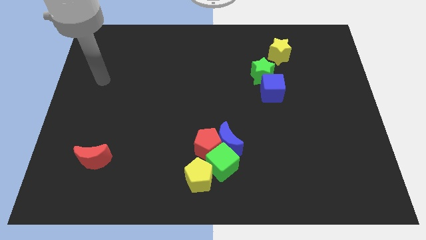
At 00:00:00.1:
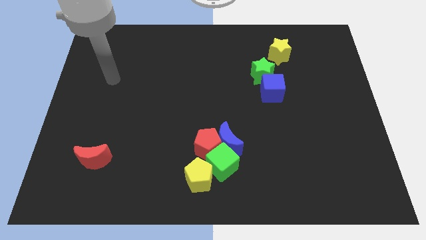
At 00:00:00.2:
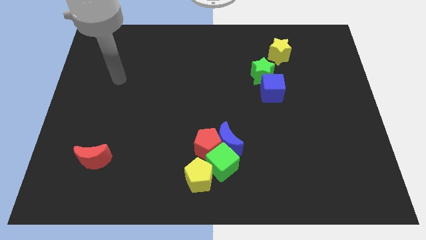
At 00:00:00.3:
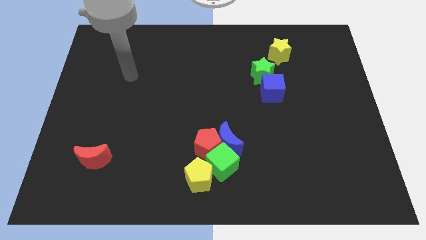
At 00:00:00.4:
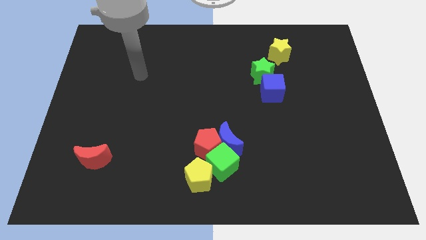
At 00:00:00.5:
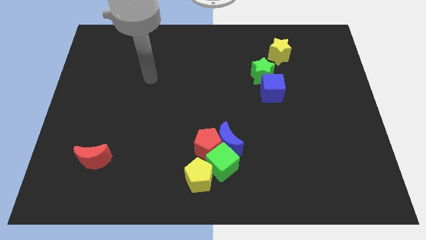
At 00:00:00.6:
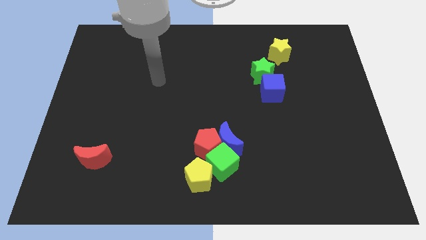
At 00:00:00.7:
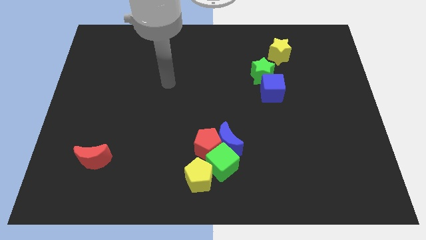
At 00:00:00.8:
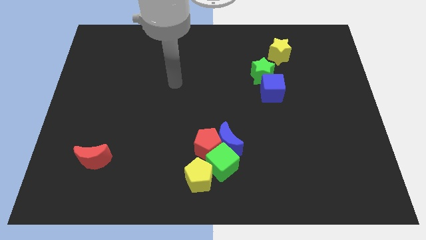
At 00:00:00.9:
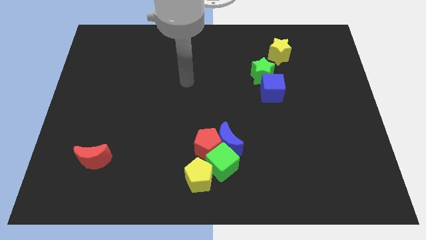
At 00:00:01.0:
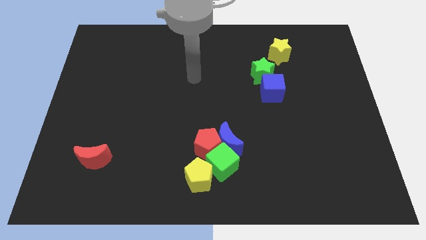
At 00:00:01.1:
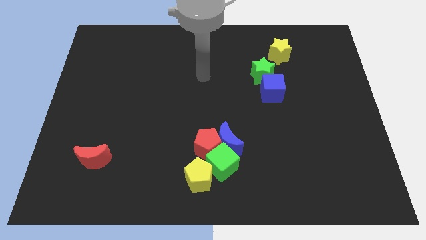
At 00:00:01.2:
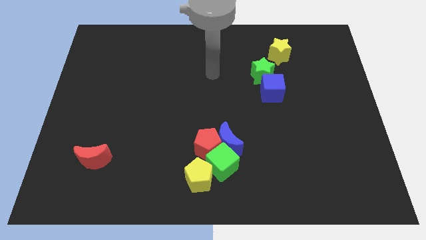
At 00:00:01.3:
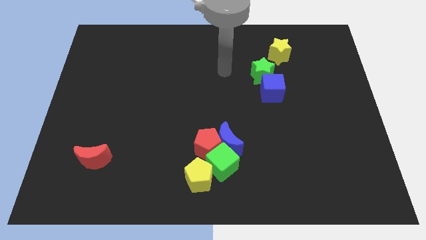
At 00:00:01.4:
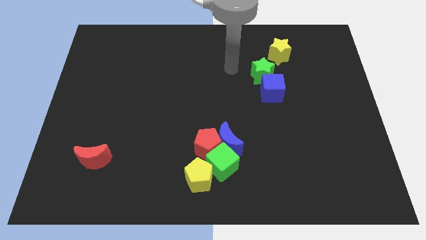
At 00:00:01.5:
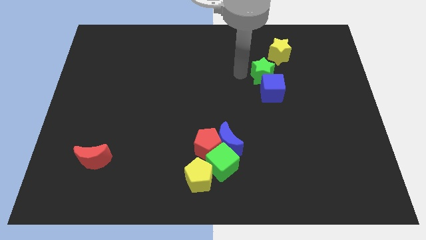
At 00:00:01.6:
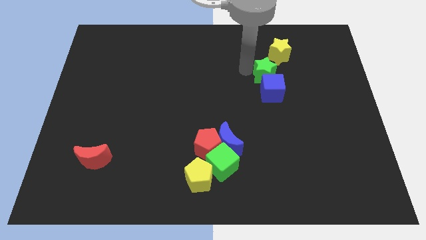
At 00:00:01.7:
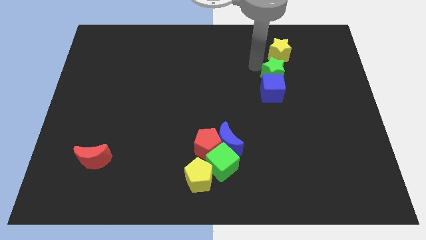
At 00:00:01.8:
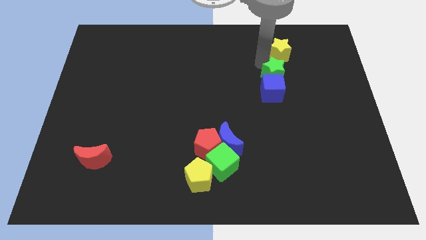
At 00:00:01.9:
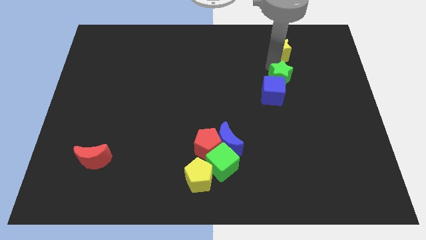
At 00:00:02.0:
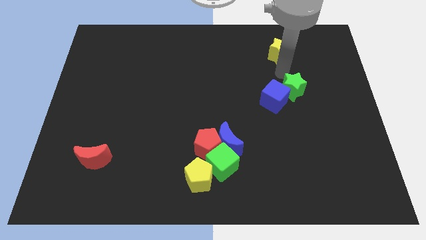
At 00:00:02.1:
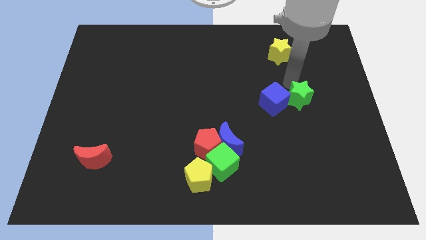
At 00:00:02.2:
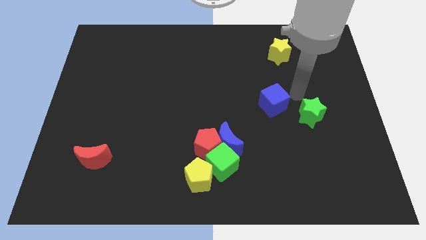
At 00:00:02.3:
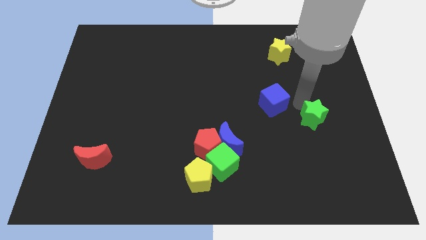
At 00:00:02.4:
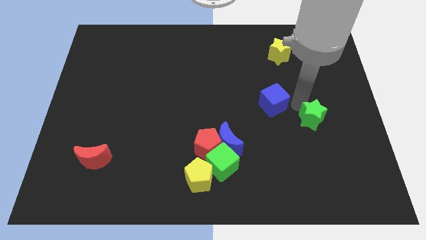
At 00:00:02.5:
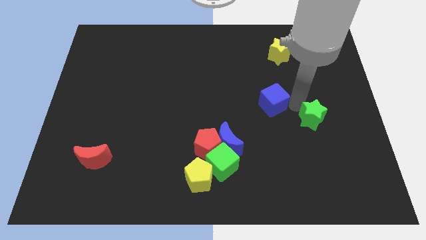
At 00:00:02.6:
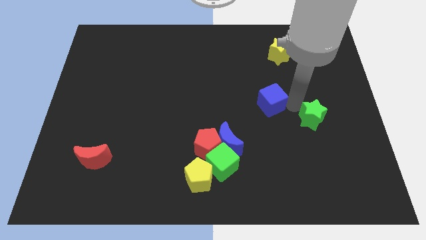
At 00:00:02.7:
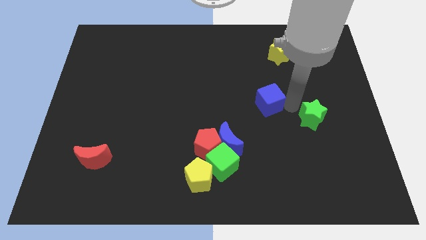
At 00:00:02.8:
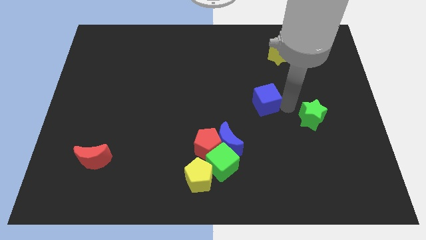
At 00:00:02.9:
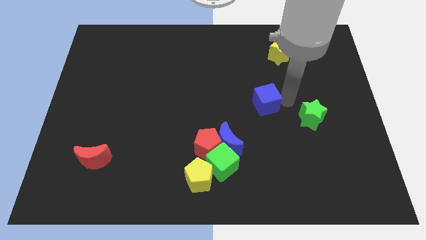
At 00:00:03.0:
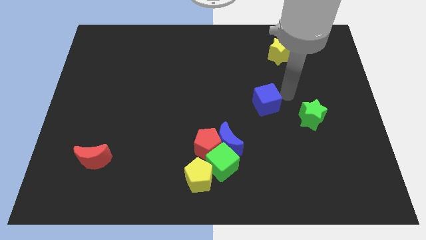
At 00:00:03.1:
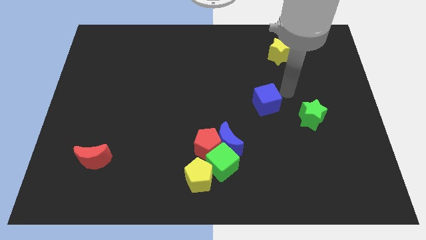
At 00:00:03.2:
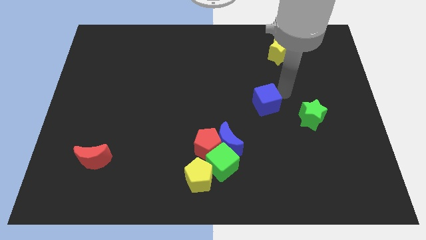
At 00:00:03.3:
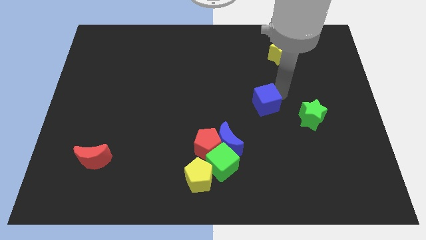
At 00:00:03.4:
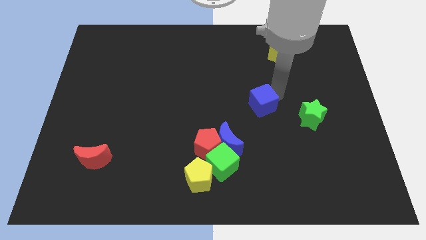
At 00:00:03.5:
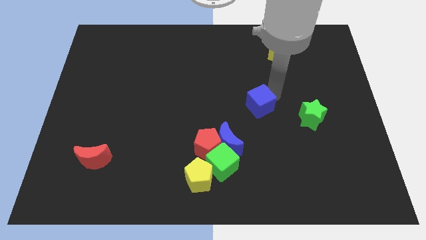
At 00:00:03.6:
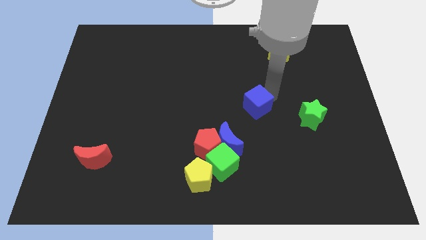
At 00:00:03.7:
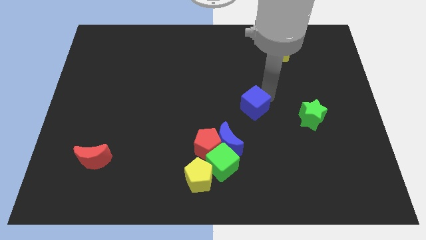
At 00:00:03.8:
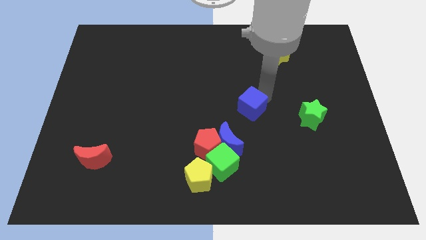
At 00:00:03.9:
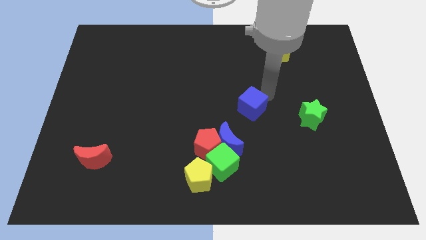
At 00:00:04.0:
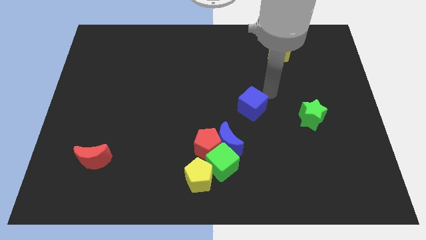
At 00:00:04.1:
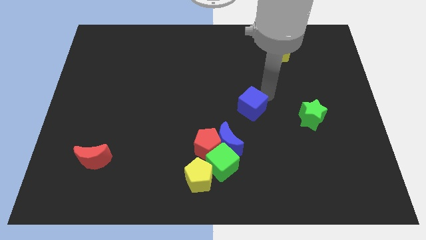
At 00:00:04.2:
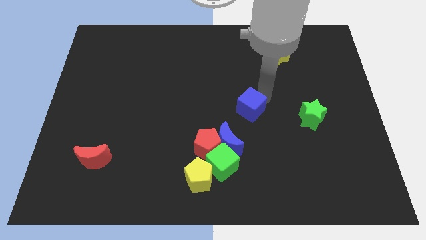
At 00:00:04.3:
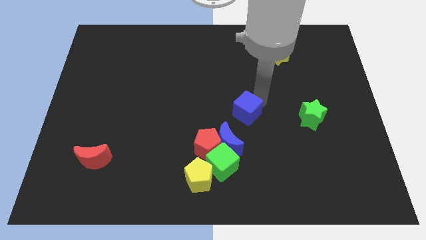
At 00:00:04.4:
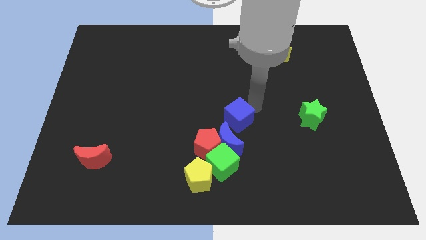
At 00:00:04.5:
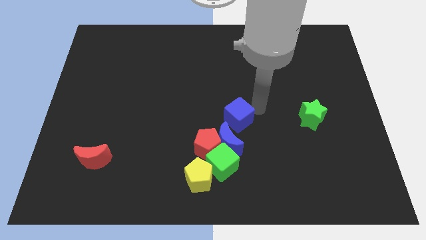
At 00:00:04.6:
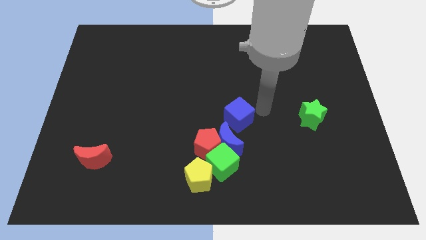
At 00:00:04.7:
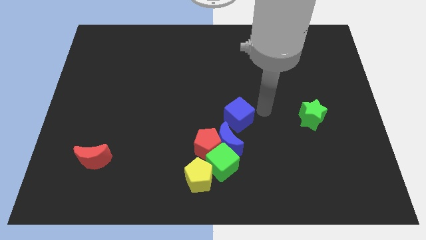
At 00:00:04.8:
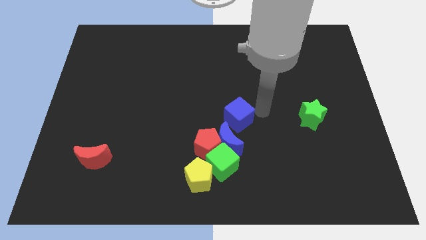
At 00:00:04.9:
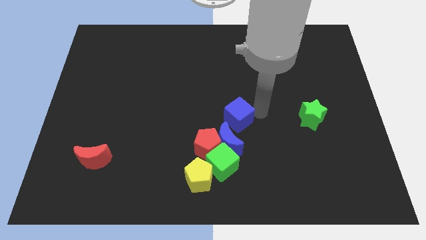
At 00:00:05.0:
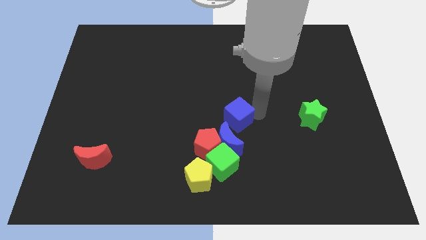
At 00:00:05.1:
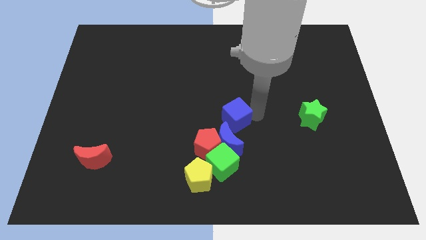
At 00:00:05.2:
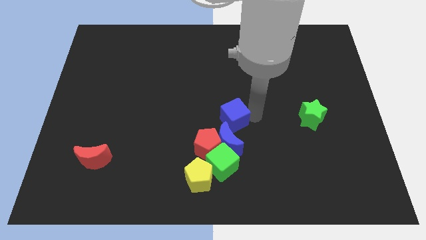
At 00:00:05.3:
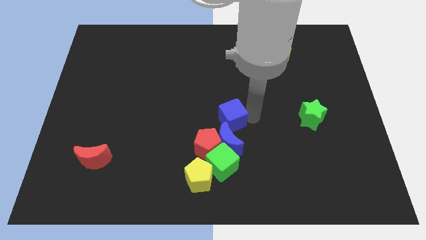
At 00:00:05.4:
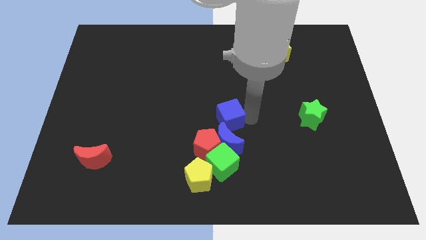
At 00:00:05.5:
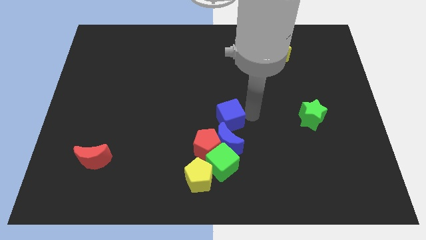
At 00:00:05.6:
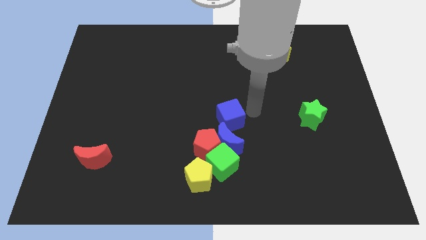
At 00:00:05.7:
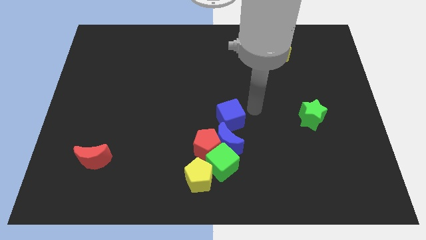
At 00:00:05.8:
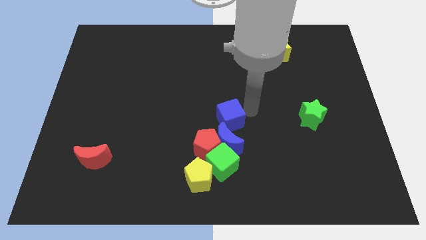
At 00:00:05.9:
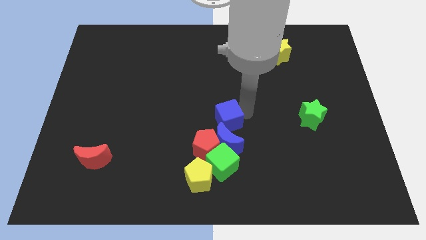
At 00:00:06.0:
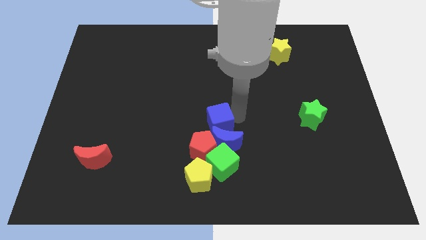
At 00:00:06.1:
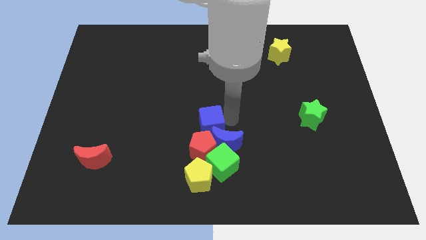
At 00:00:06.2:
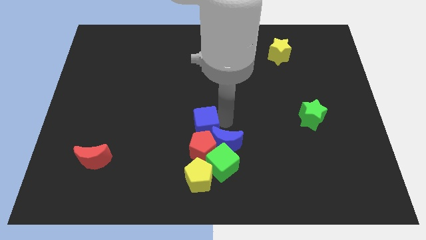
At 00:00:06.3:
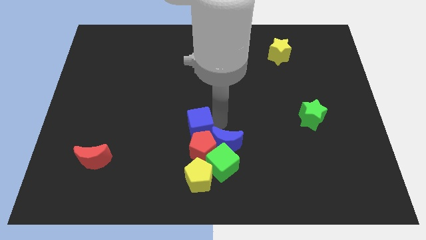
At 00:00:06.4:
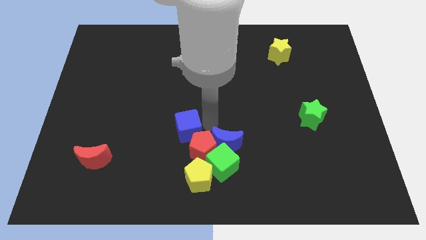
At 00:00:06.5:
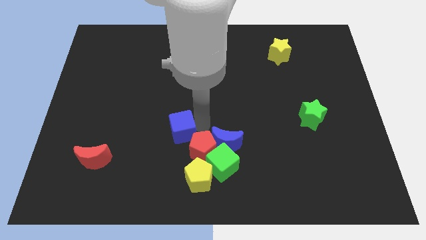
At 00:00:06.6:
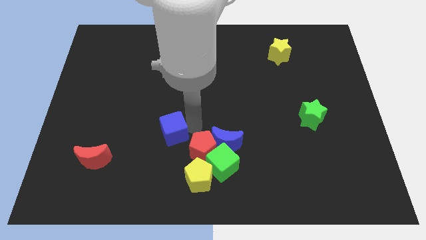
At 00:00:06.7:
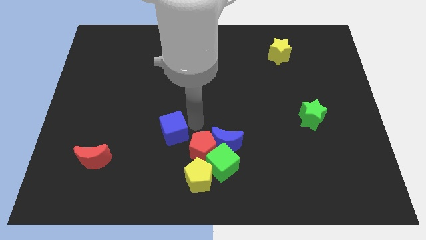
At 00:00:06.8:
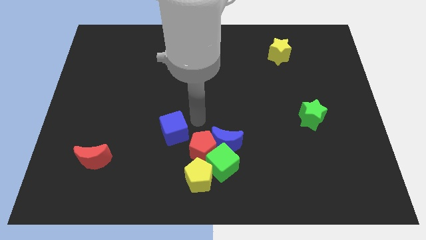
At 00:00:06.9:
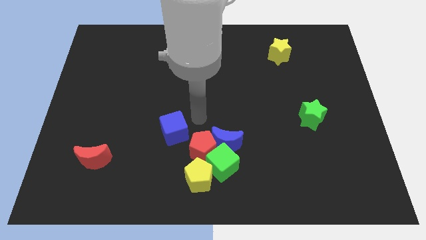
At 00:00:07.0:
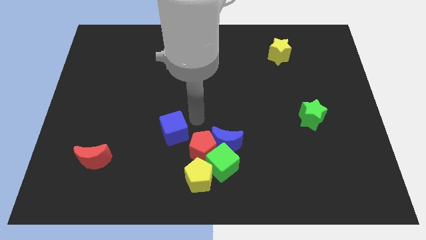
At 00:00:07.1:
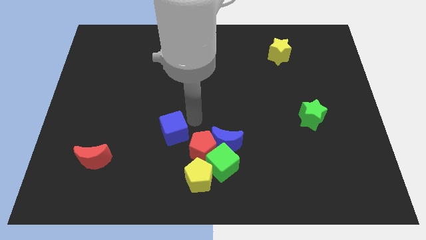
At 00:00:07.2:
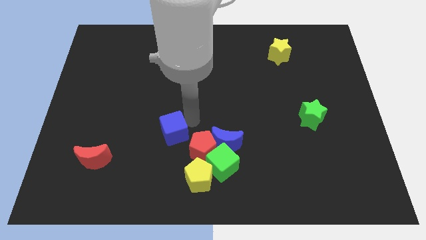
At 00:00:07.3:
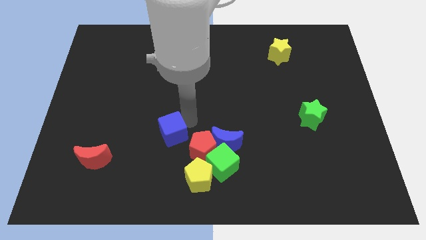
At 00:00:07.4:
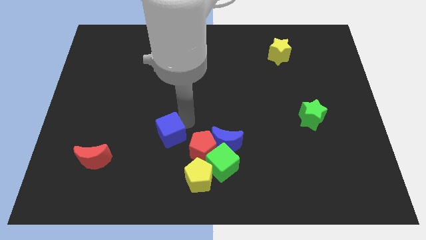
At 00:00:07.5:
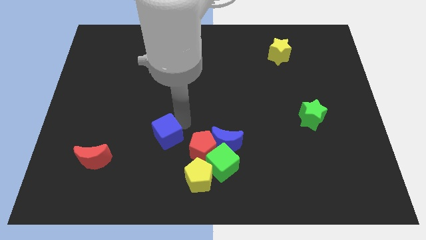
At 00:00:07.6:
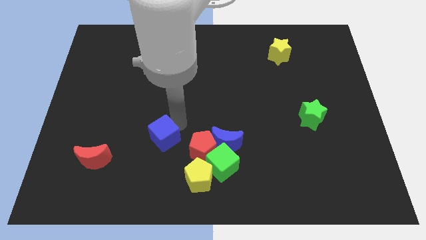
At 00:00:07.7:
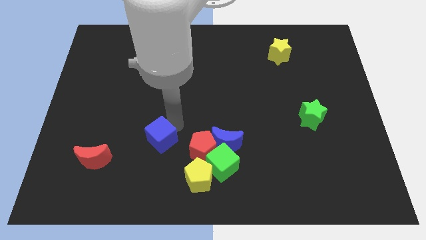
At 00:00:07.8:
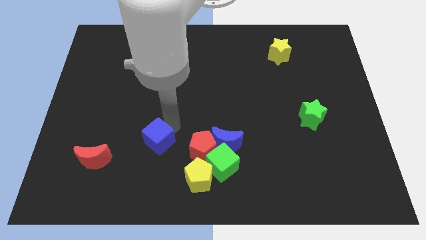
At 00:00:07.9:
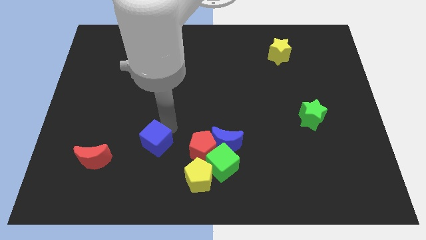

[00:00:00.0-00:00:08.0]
slide the blue cube to the right of the red moon
